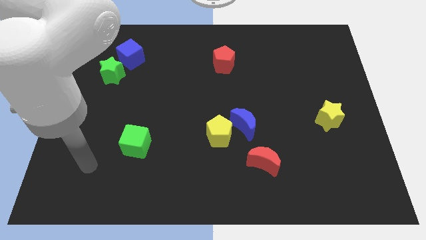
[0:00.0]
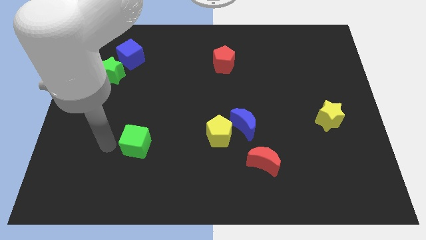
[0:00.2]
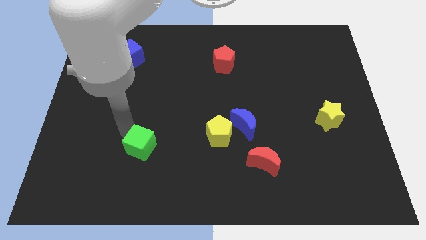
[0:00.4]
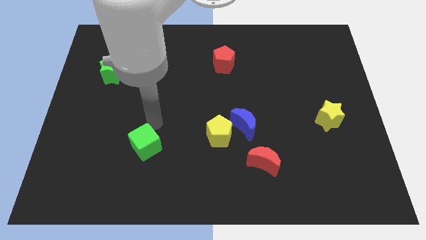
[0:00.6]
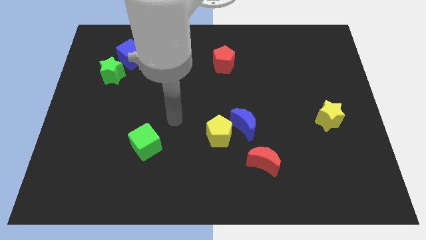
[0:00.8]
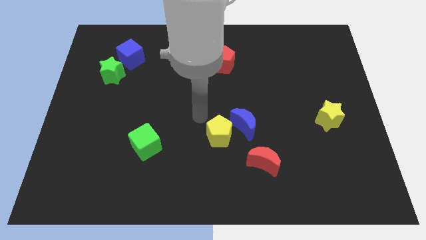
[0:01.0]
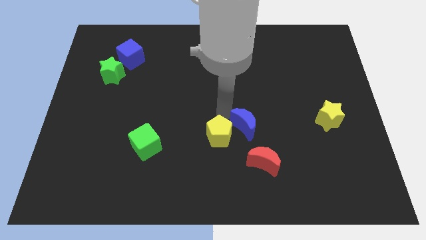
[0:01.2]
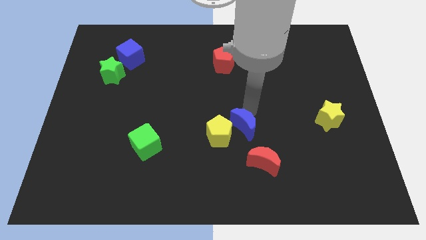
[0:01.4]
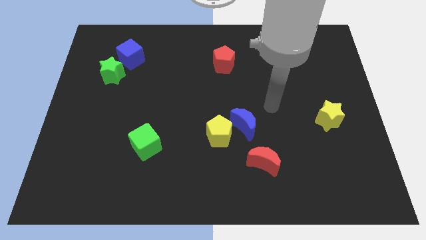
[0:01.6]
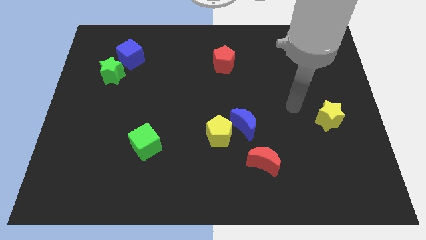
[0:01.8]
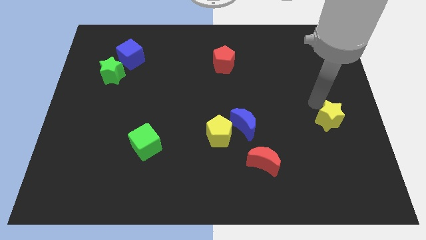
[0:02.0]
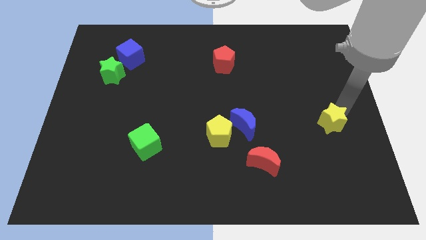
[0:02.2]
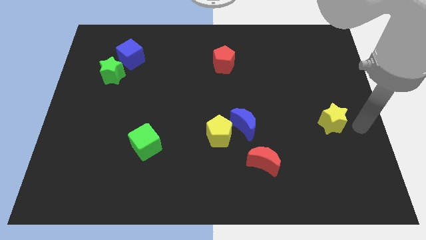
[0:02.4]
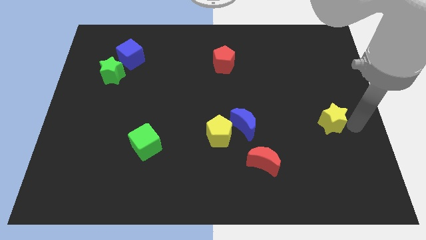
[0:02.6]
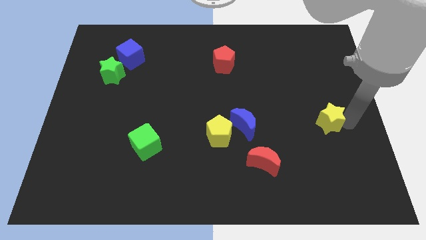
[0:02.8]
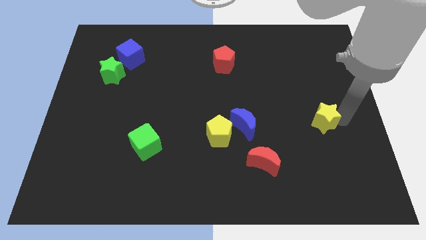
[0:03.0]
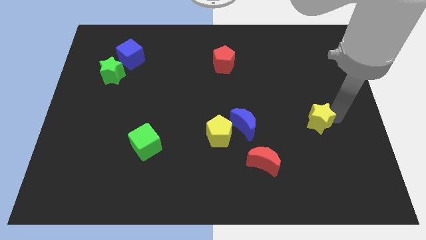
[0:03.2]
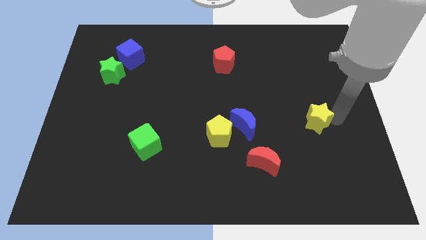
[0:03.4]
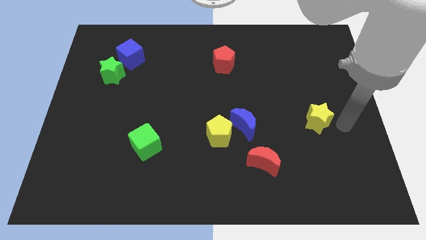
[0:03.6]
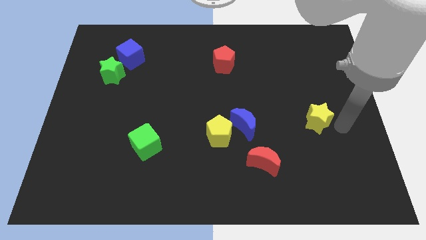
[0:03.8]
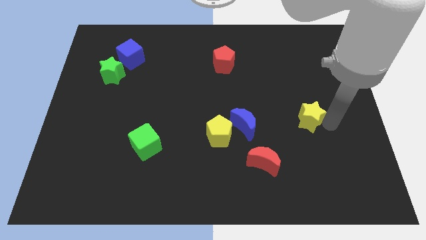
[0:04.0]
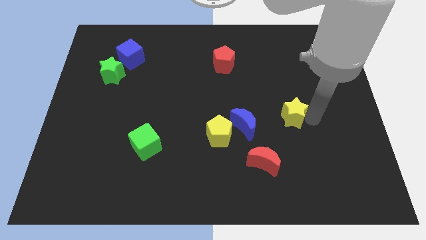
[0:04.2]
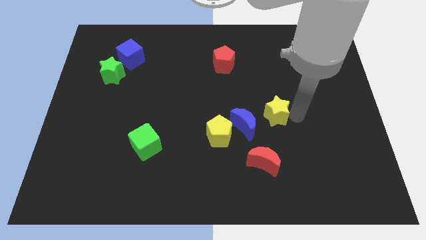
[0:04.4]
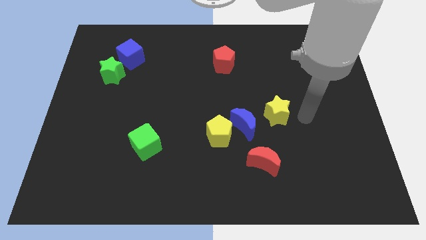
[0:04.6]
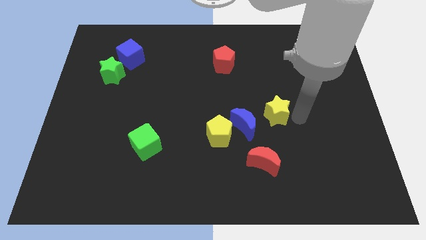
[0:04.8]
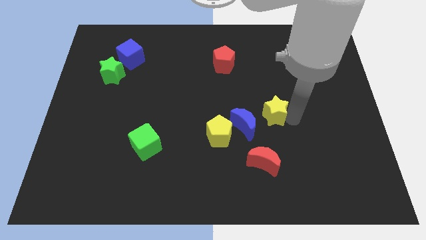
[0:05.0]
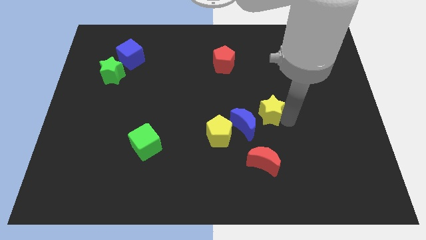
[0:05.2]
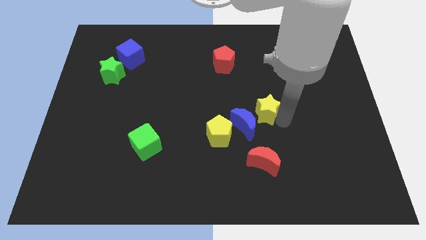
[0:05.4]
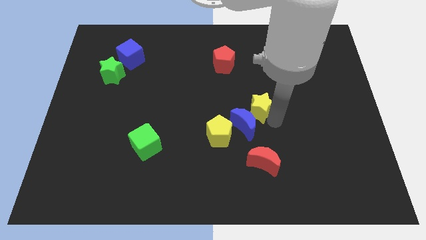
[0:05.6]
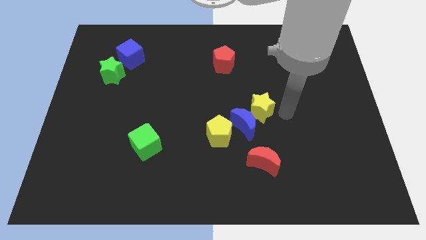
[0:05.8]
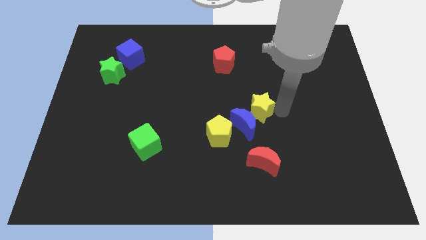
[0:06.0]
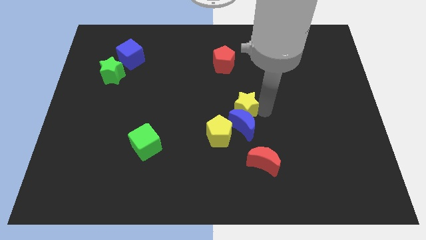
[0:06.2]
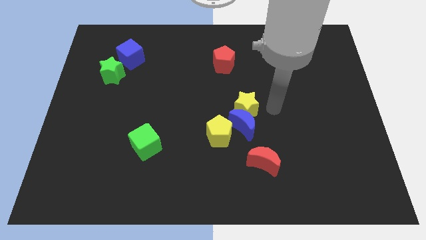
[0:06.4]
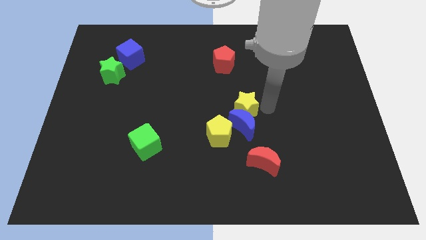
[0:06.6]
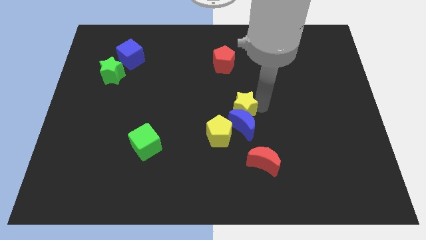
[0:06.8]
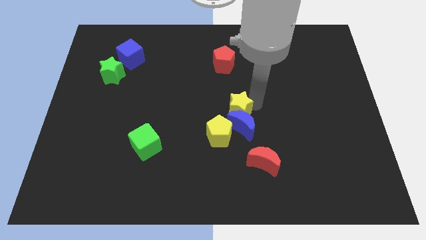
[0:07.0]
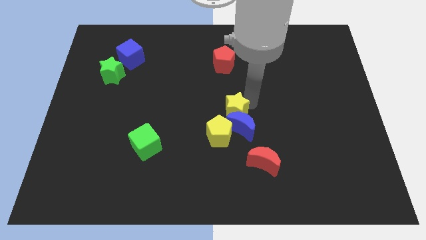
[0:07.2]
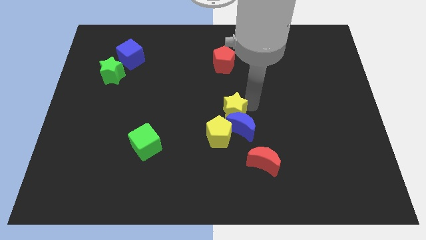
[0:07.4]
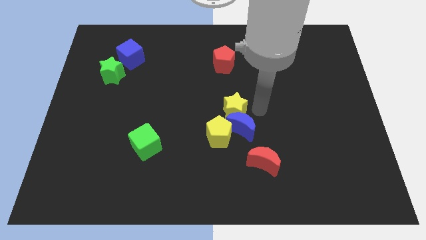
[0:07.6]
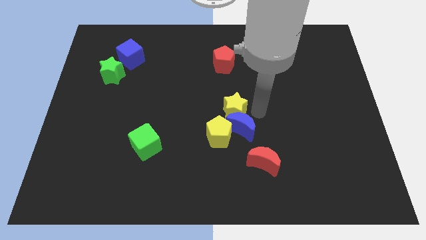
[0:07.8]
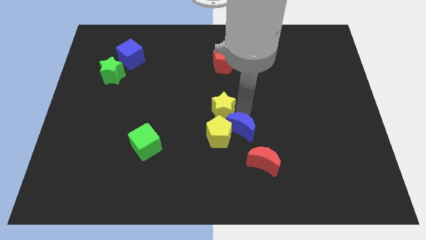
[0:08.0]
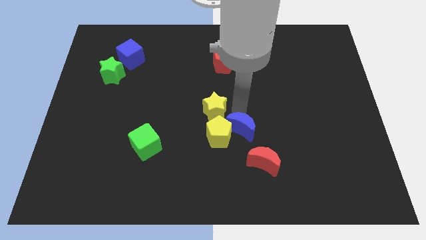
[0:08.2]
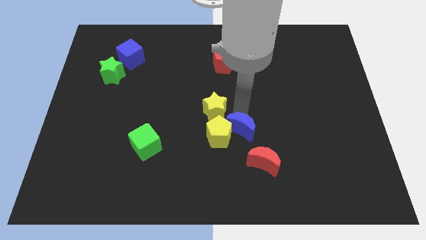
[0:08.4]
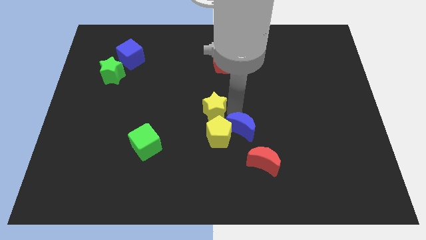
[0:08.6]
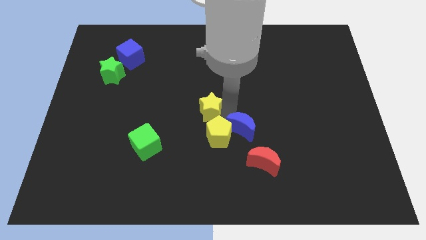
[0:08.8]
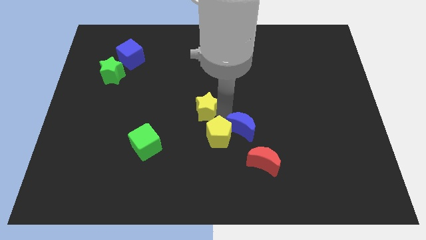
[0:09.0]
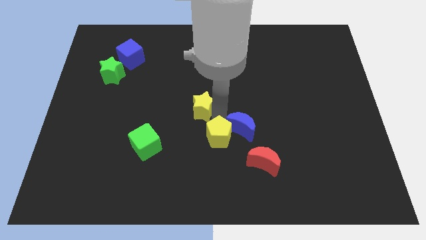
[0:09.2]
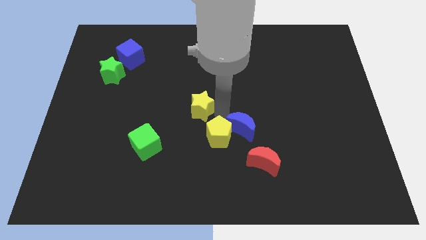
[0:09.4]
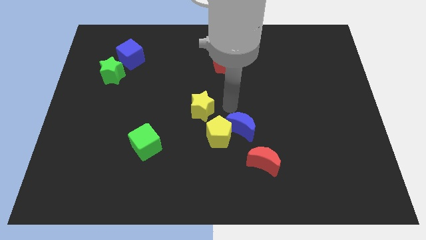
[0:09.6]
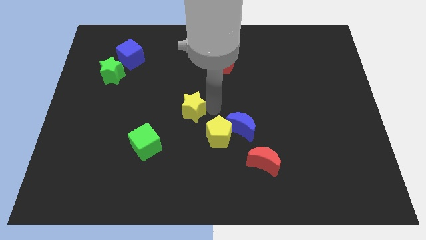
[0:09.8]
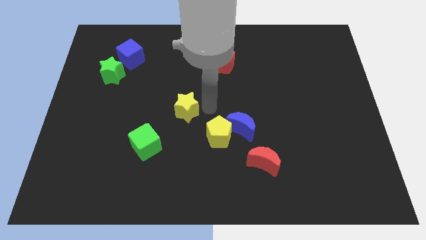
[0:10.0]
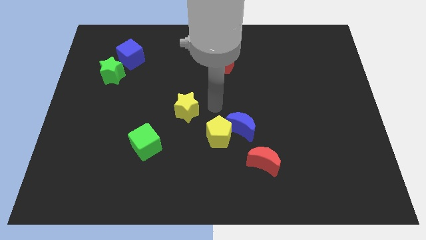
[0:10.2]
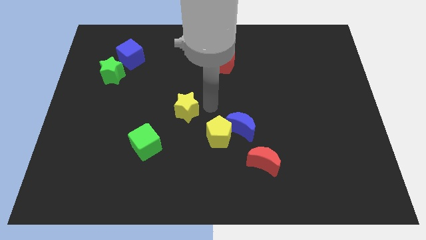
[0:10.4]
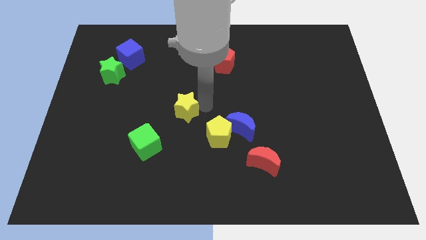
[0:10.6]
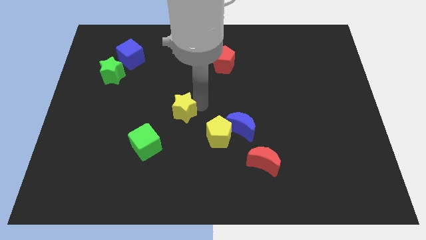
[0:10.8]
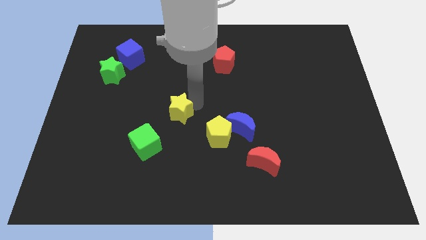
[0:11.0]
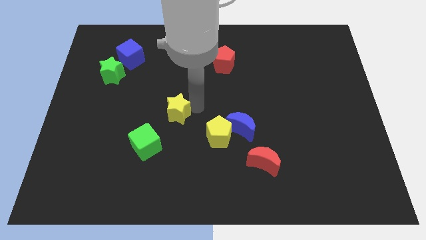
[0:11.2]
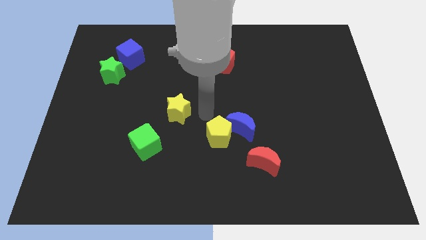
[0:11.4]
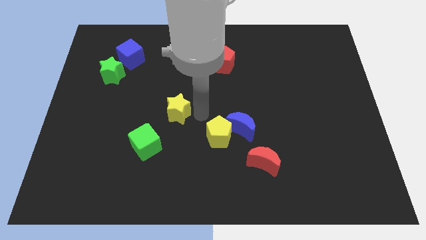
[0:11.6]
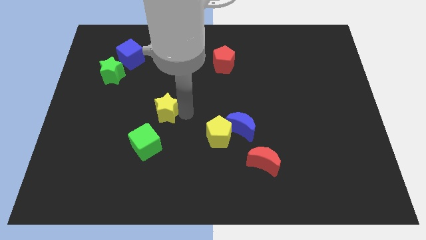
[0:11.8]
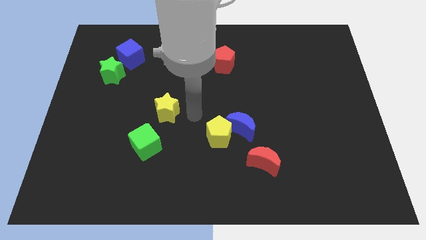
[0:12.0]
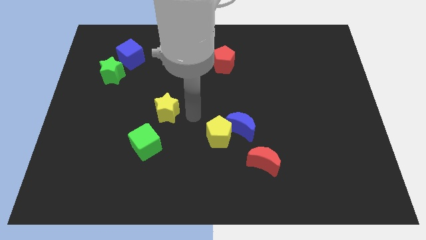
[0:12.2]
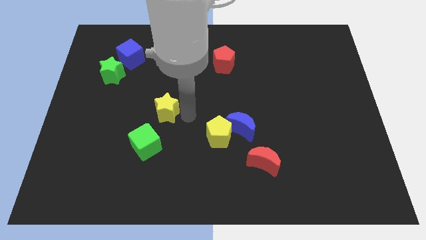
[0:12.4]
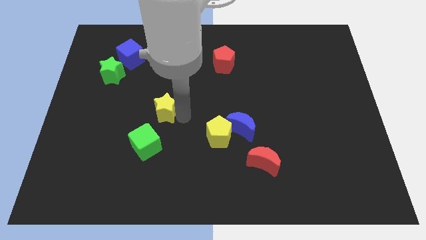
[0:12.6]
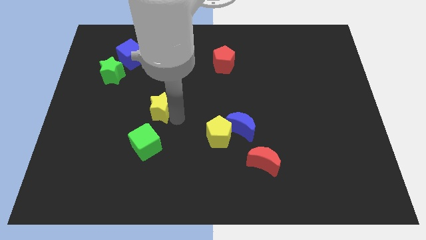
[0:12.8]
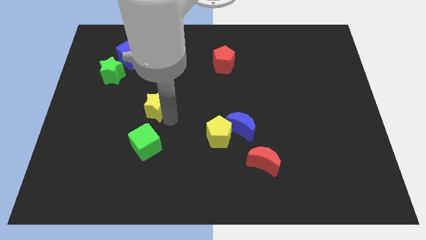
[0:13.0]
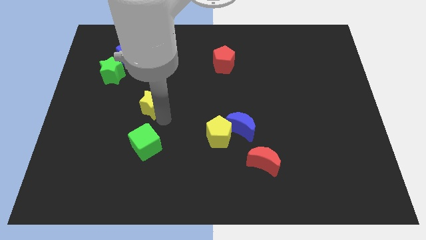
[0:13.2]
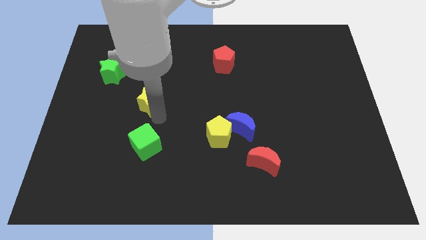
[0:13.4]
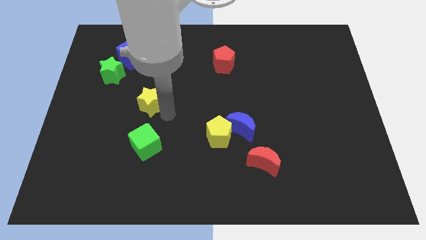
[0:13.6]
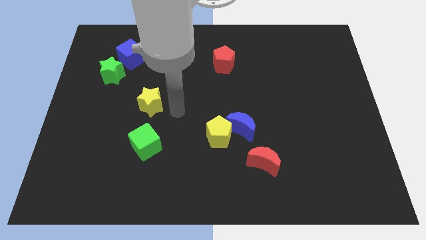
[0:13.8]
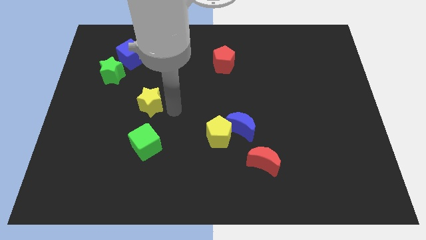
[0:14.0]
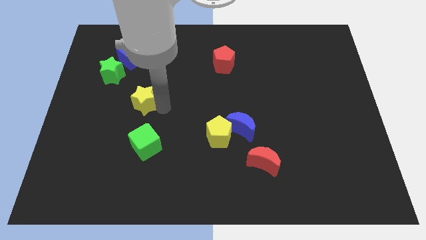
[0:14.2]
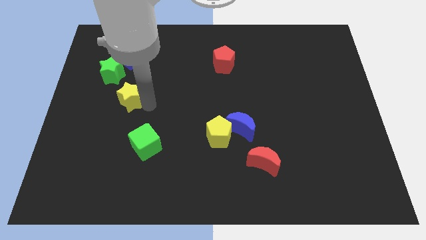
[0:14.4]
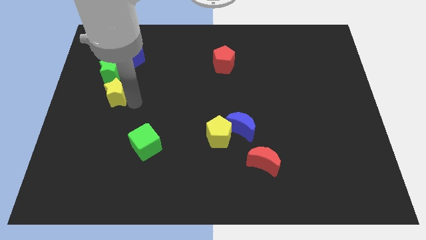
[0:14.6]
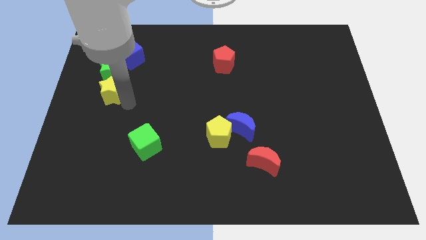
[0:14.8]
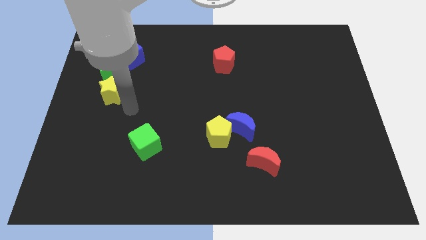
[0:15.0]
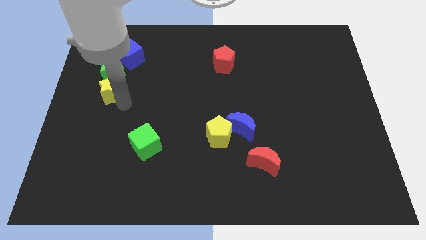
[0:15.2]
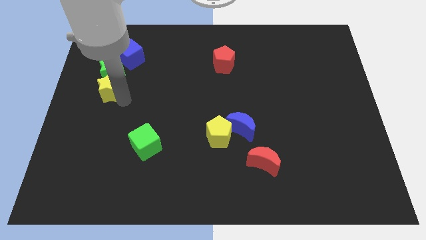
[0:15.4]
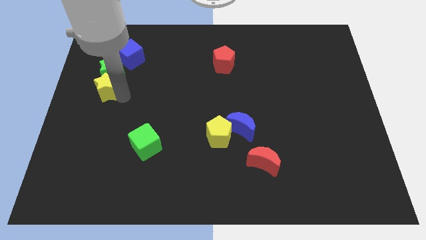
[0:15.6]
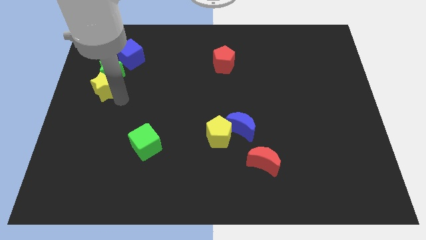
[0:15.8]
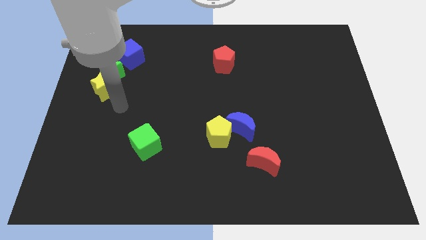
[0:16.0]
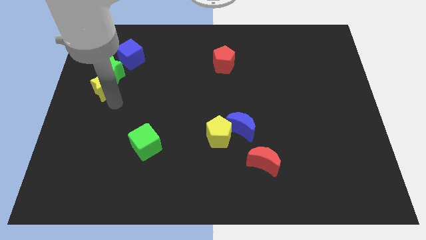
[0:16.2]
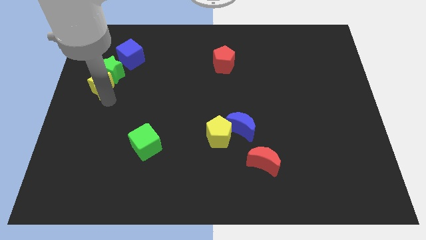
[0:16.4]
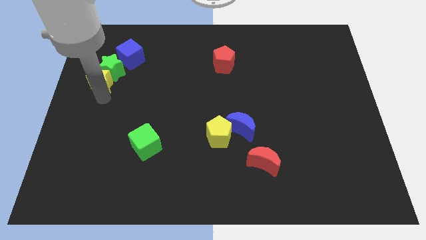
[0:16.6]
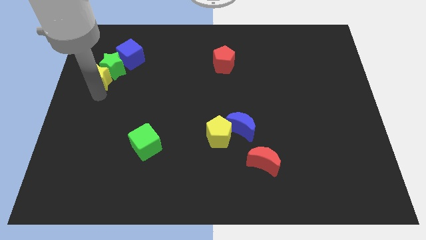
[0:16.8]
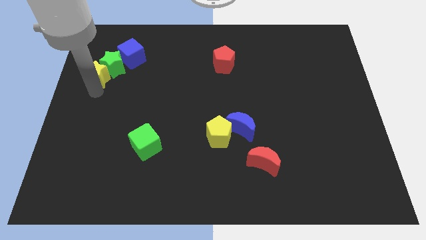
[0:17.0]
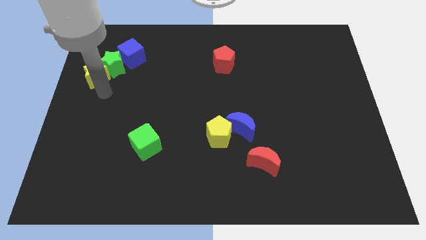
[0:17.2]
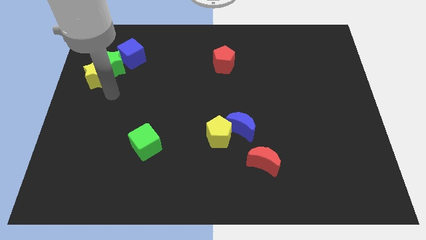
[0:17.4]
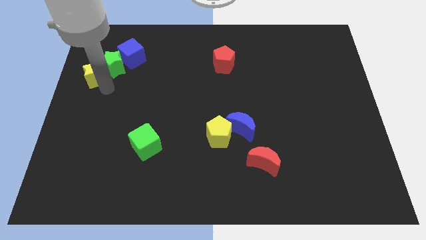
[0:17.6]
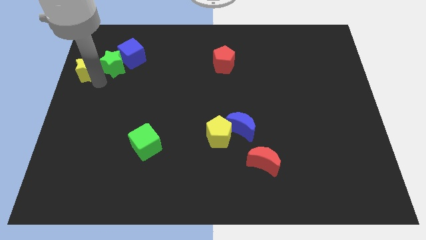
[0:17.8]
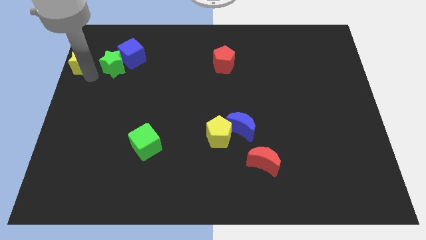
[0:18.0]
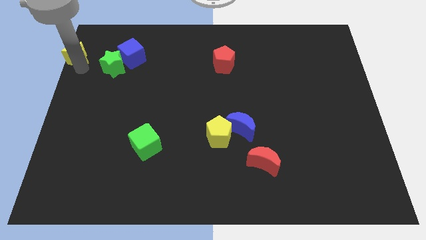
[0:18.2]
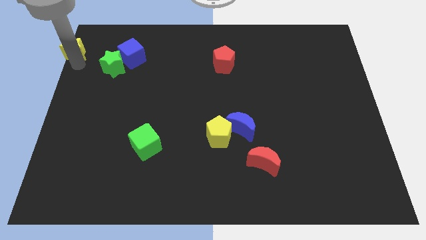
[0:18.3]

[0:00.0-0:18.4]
move the yellow star to the top left
